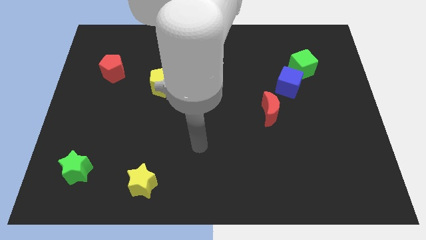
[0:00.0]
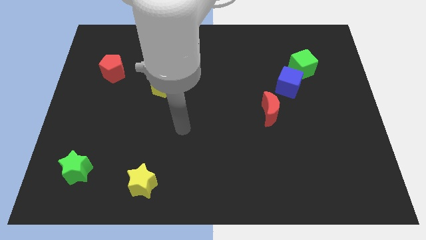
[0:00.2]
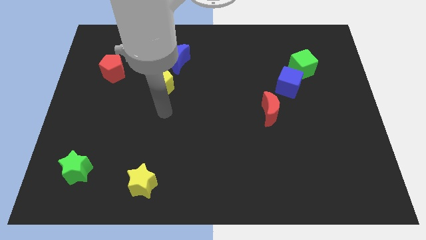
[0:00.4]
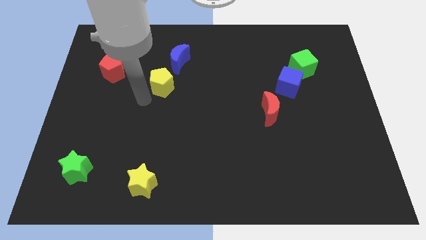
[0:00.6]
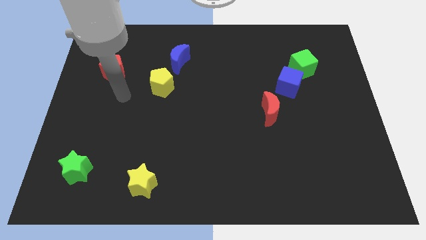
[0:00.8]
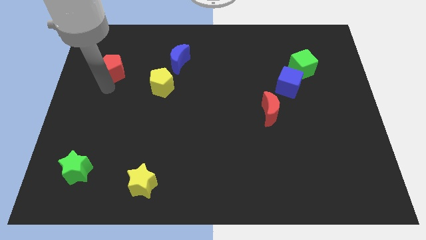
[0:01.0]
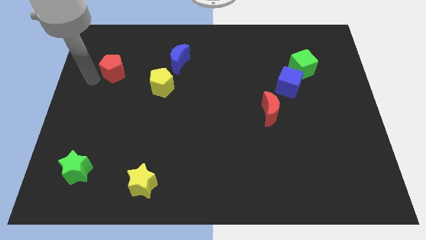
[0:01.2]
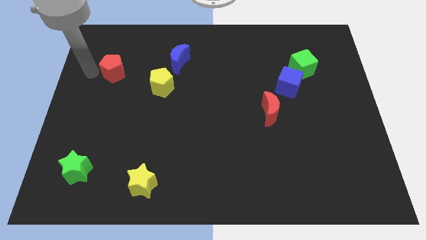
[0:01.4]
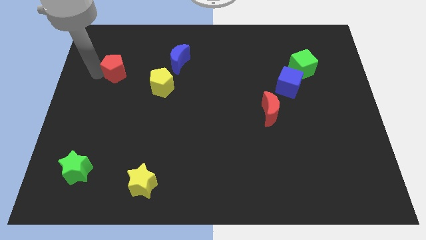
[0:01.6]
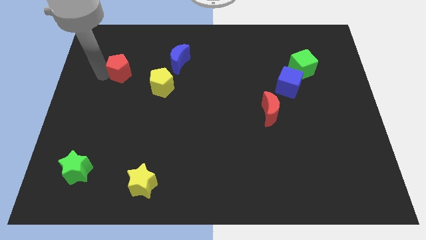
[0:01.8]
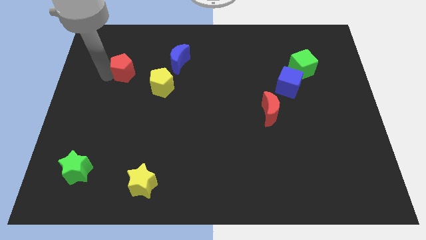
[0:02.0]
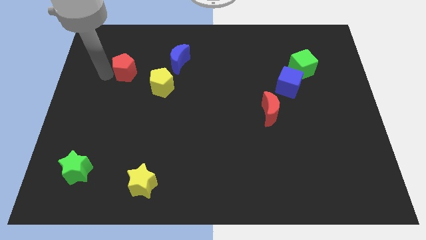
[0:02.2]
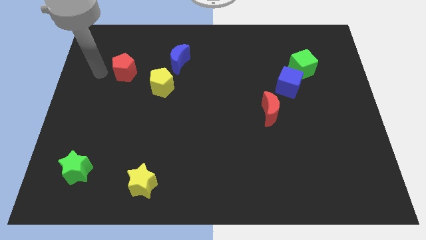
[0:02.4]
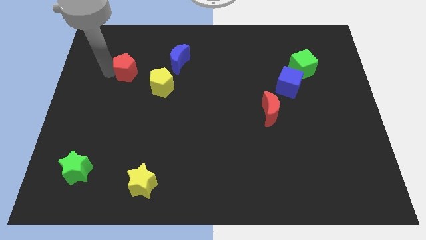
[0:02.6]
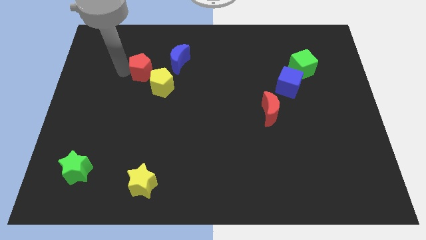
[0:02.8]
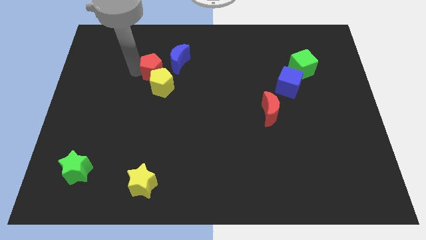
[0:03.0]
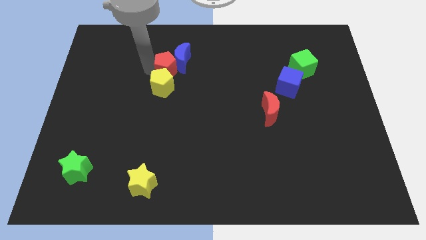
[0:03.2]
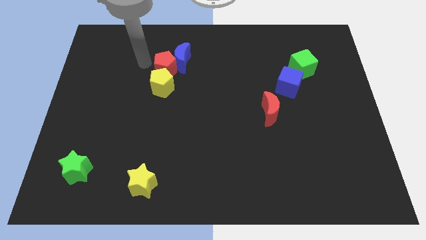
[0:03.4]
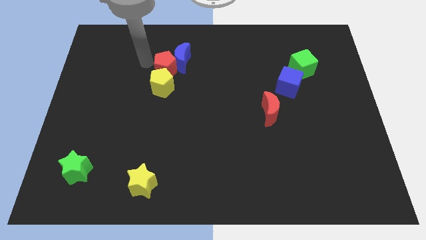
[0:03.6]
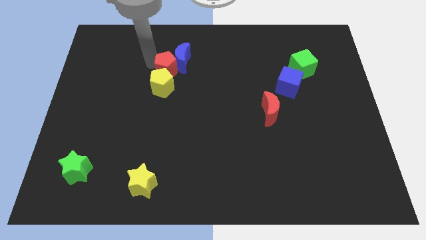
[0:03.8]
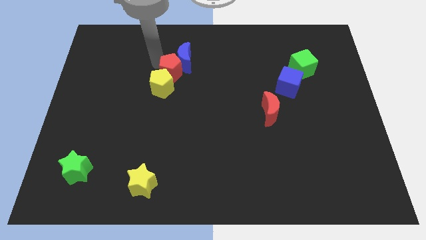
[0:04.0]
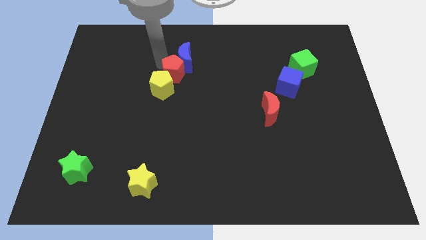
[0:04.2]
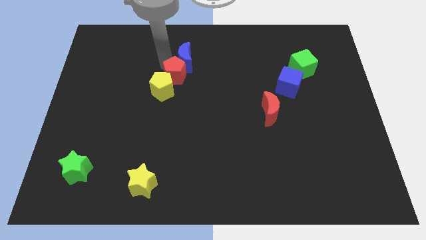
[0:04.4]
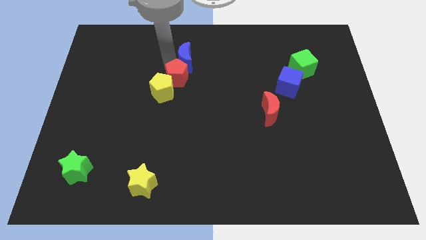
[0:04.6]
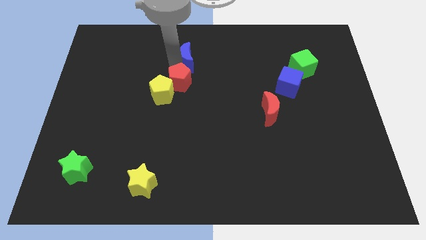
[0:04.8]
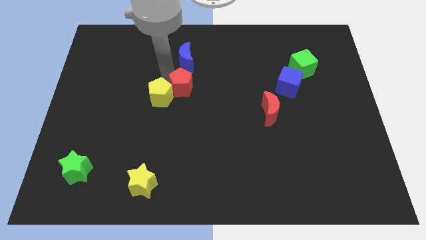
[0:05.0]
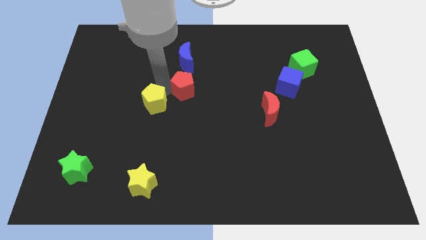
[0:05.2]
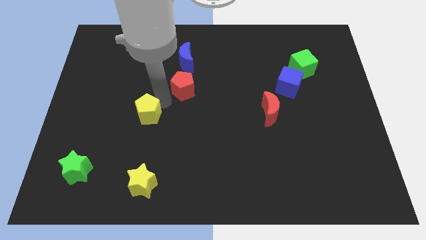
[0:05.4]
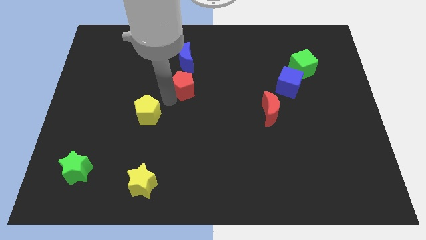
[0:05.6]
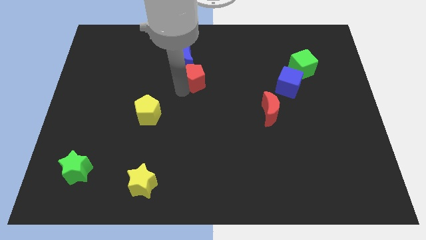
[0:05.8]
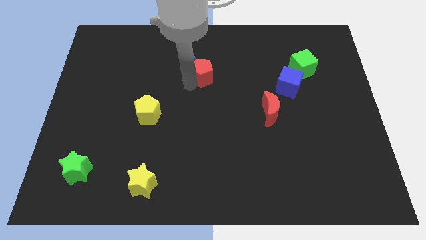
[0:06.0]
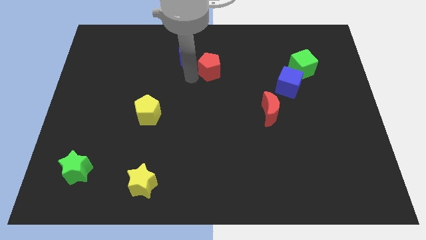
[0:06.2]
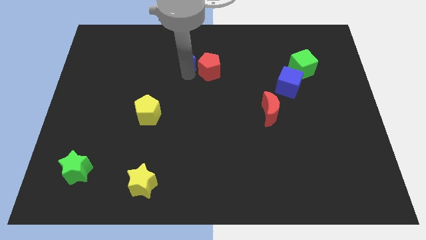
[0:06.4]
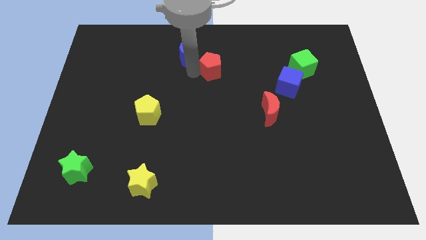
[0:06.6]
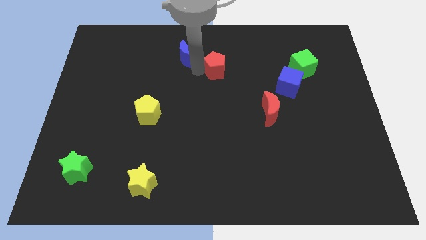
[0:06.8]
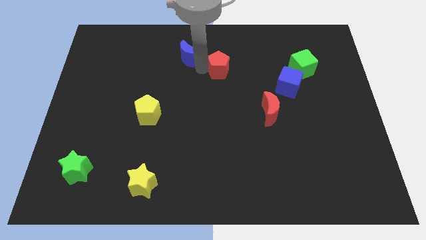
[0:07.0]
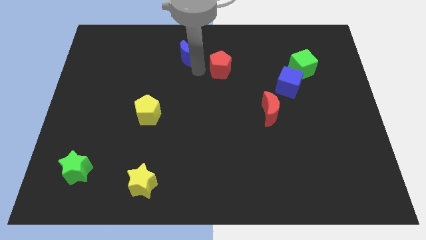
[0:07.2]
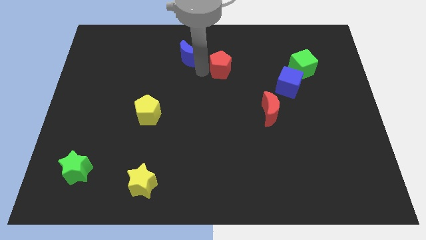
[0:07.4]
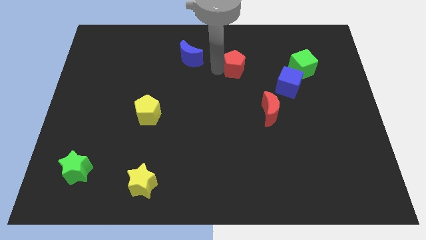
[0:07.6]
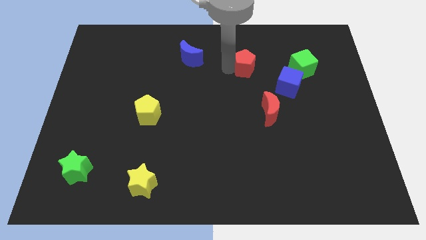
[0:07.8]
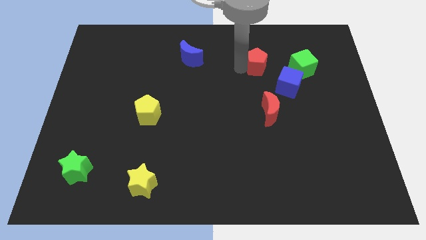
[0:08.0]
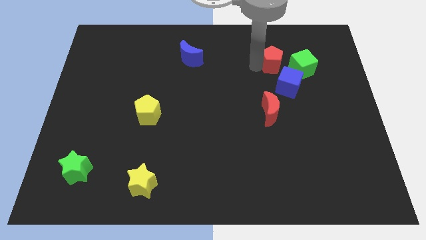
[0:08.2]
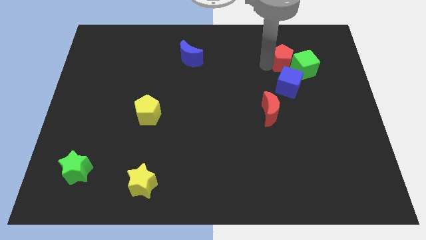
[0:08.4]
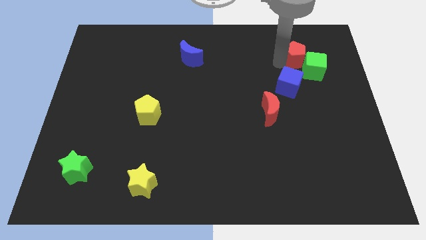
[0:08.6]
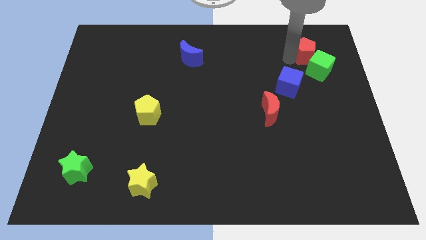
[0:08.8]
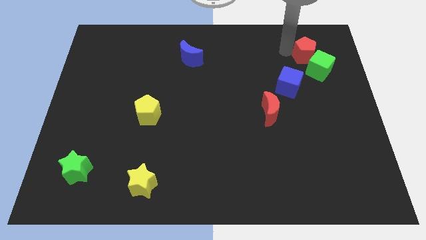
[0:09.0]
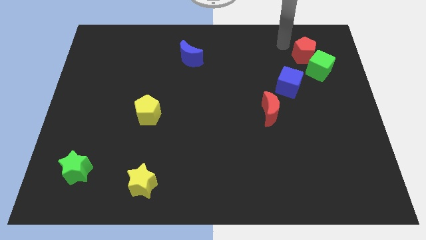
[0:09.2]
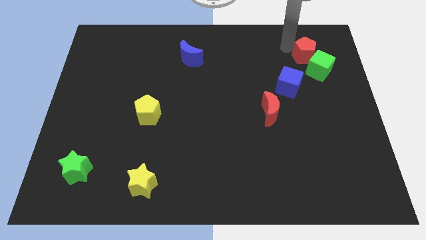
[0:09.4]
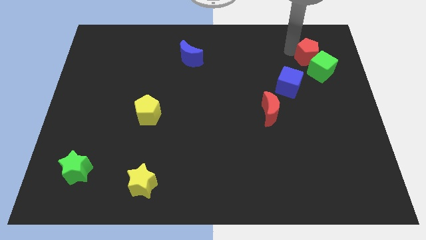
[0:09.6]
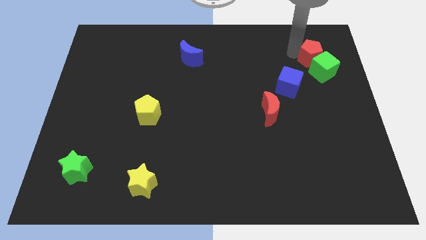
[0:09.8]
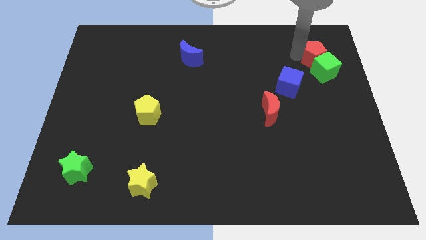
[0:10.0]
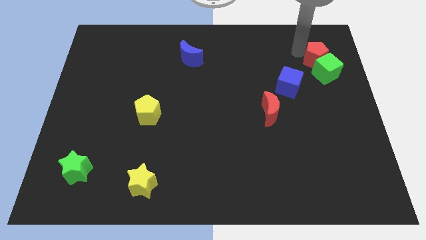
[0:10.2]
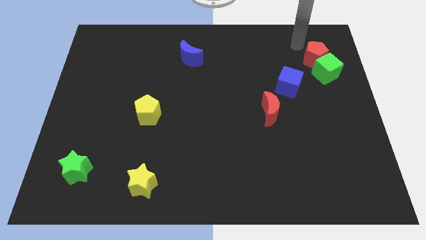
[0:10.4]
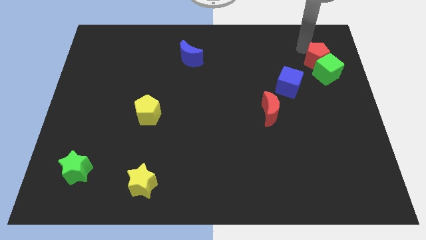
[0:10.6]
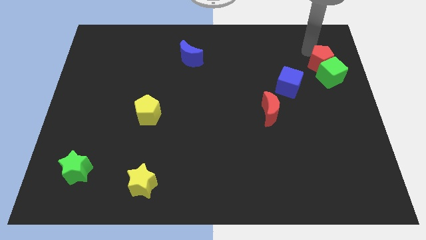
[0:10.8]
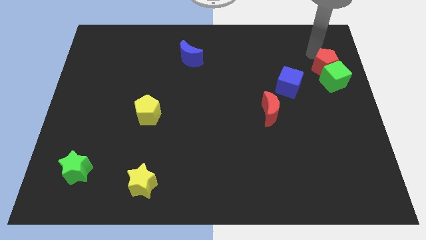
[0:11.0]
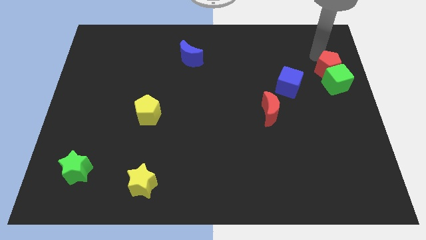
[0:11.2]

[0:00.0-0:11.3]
push the red pentagon to the right side of the board
